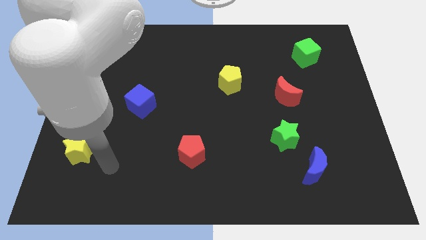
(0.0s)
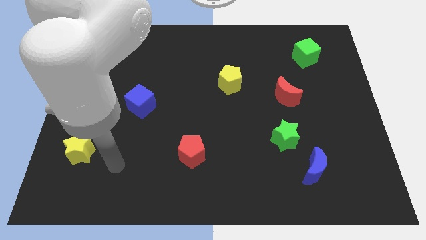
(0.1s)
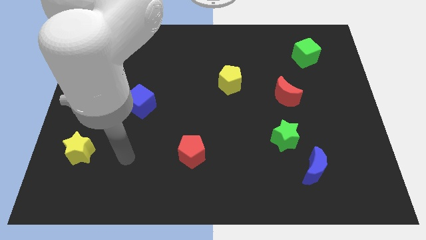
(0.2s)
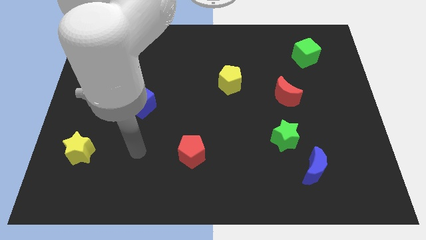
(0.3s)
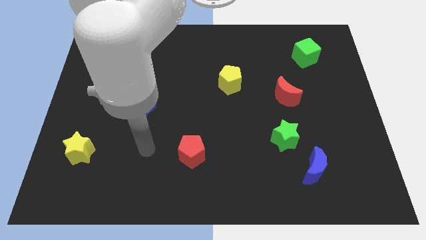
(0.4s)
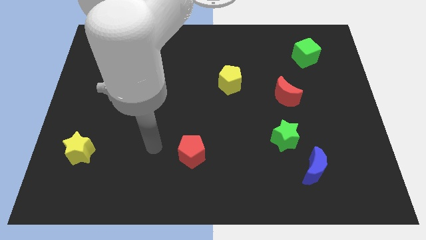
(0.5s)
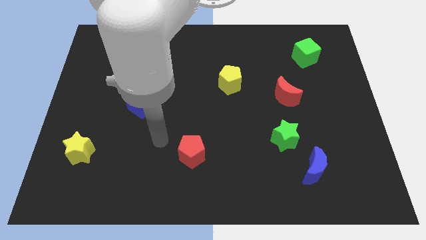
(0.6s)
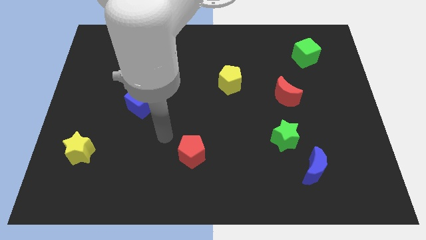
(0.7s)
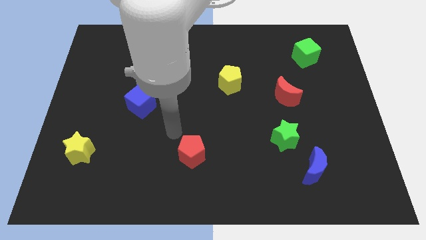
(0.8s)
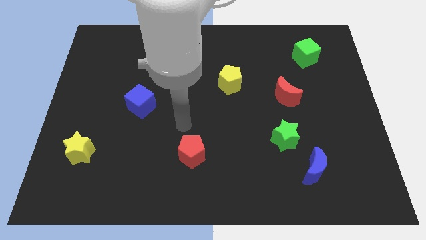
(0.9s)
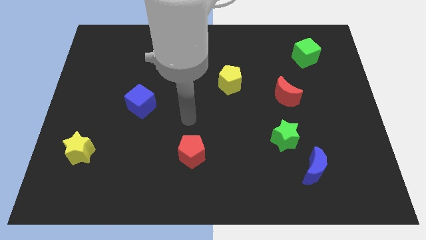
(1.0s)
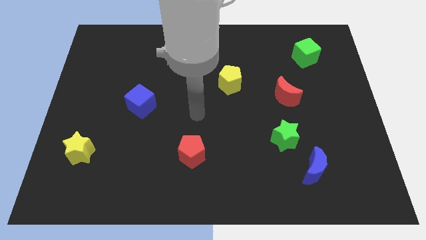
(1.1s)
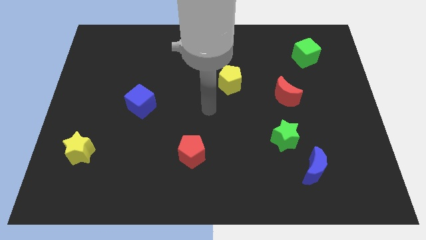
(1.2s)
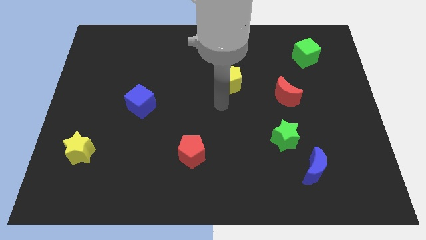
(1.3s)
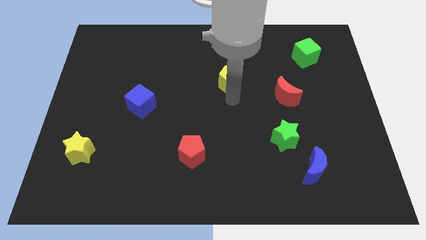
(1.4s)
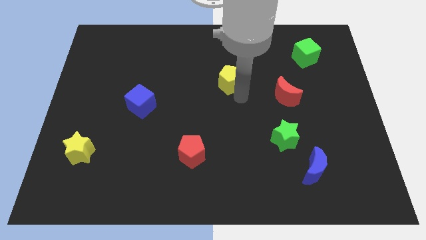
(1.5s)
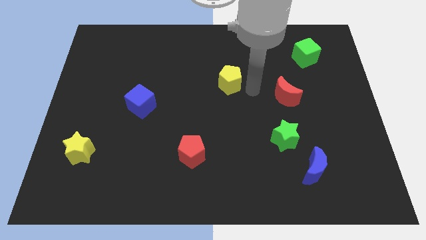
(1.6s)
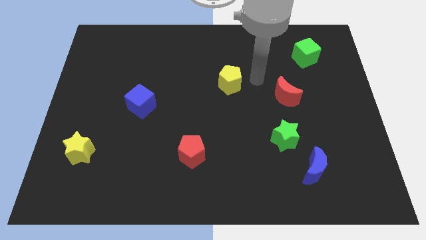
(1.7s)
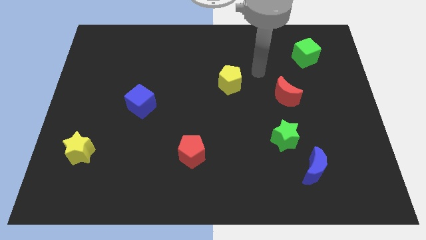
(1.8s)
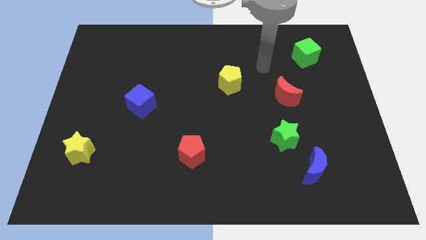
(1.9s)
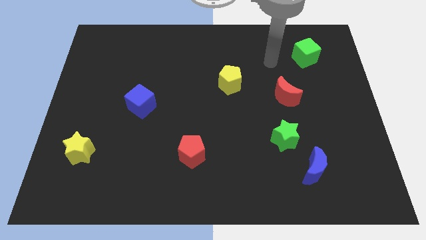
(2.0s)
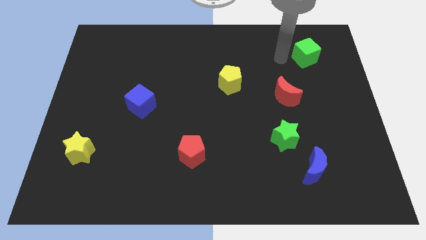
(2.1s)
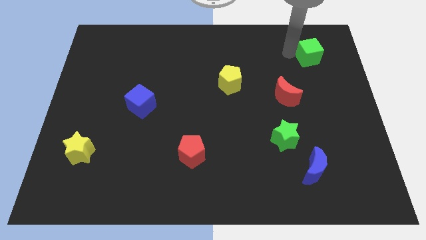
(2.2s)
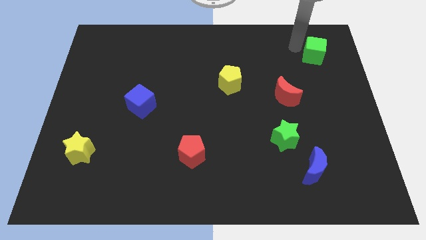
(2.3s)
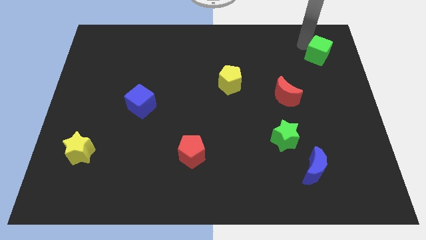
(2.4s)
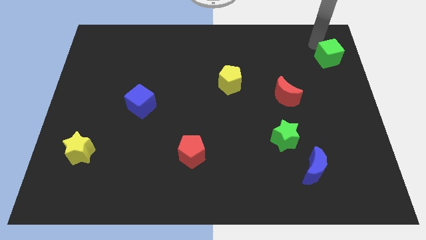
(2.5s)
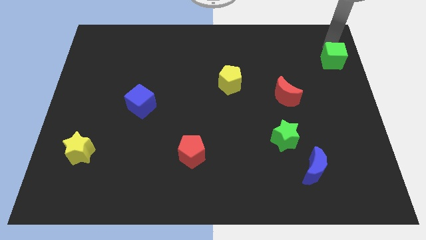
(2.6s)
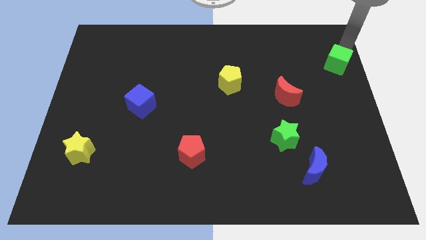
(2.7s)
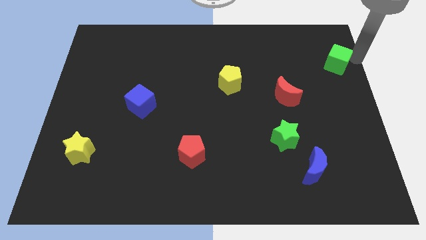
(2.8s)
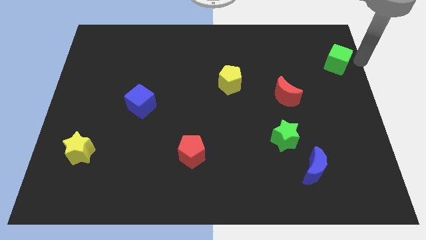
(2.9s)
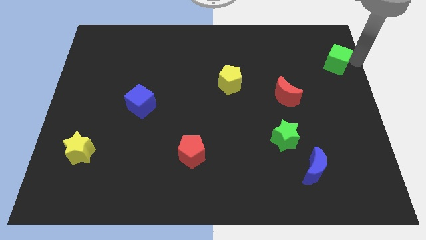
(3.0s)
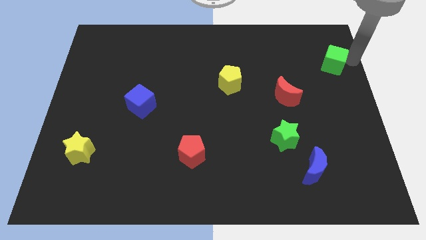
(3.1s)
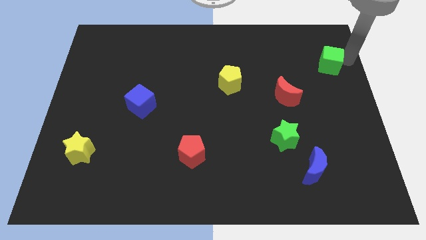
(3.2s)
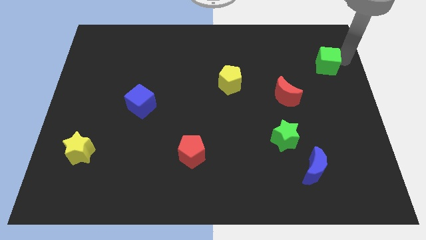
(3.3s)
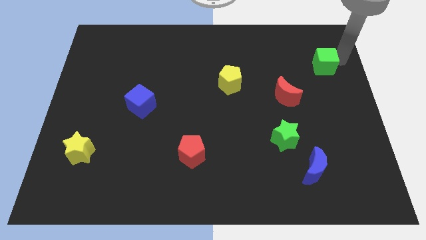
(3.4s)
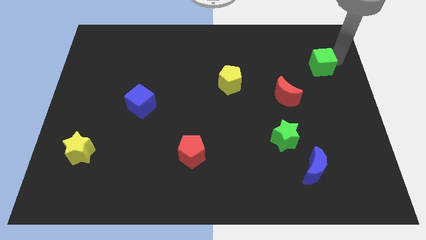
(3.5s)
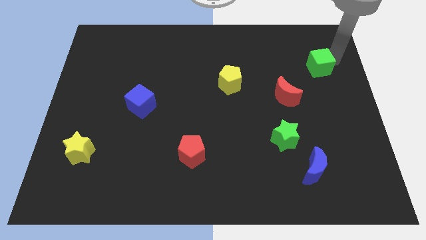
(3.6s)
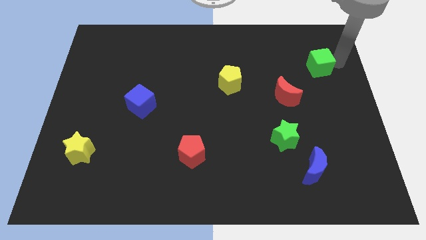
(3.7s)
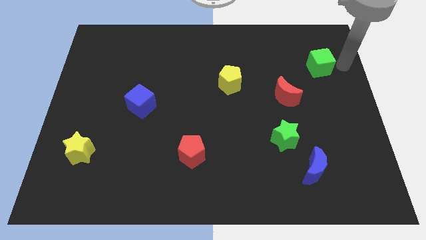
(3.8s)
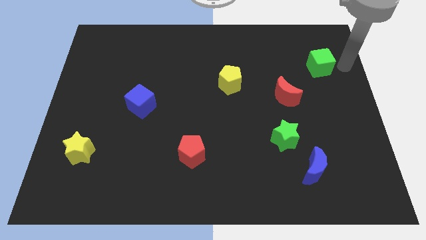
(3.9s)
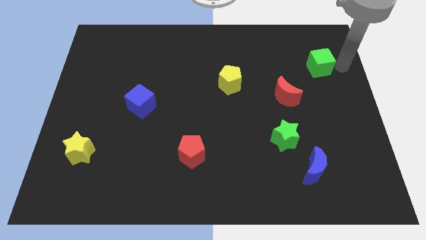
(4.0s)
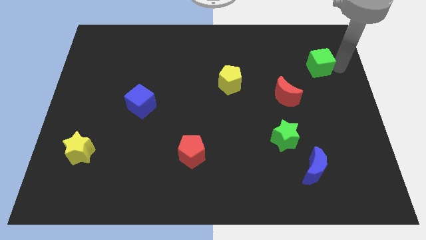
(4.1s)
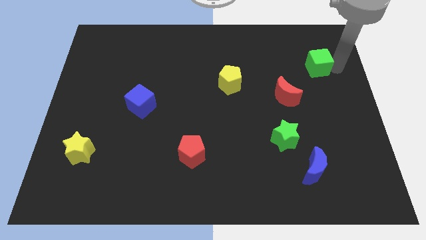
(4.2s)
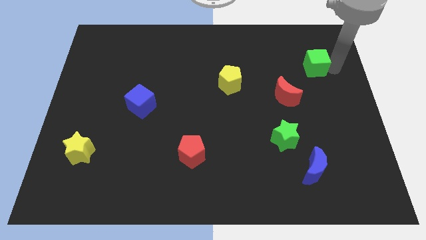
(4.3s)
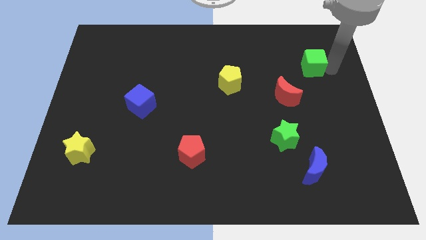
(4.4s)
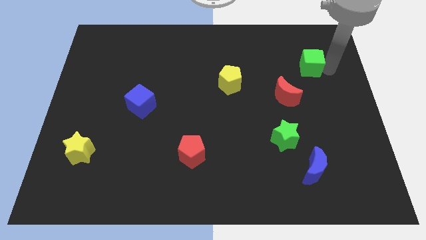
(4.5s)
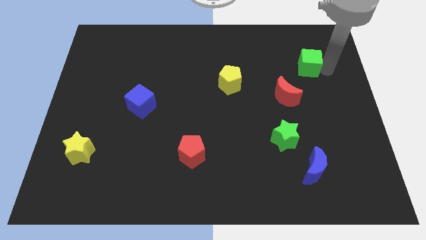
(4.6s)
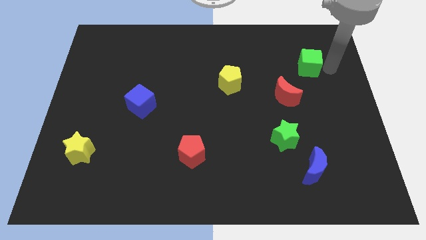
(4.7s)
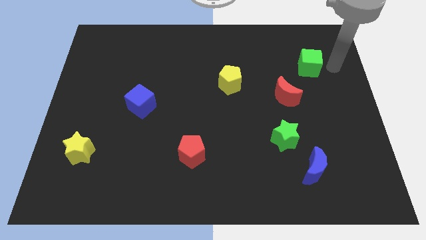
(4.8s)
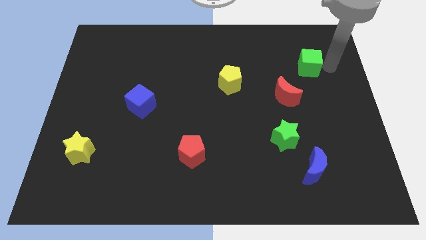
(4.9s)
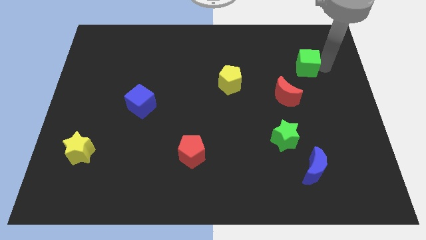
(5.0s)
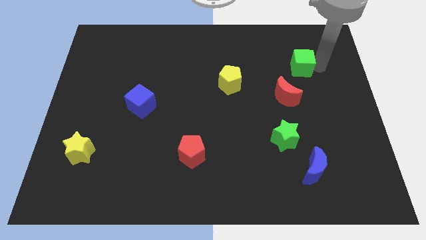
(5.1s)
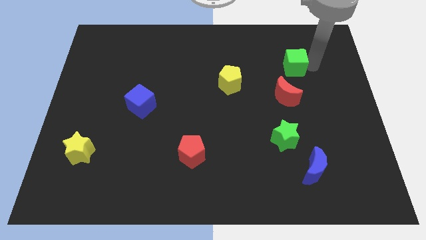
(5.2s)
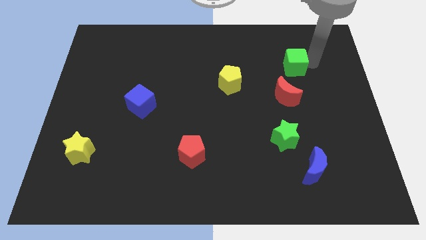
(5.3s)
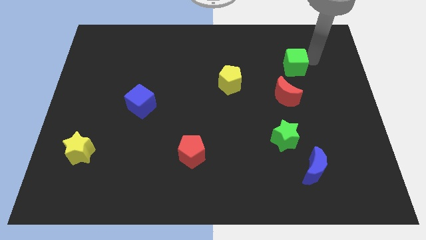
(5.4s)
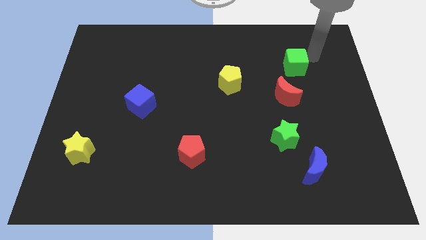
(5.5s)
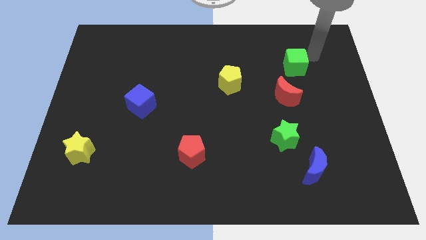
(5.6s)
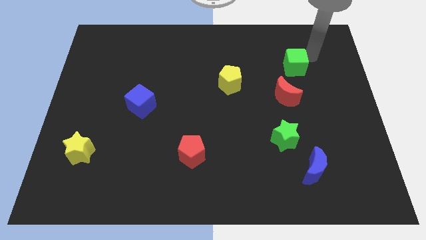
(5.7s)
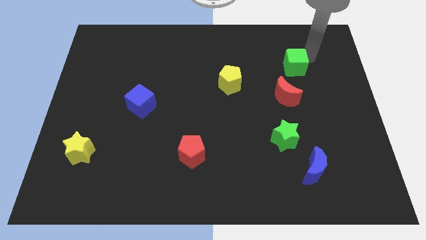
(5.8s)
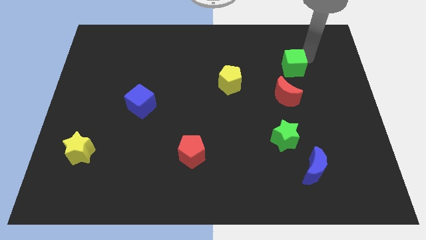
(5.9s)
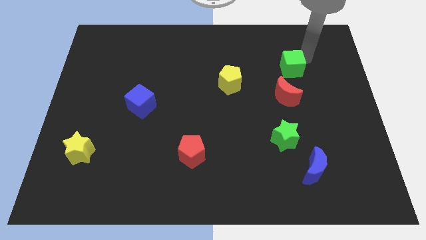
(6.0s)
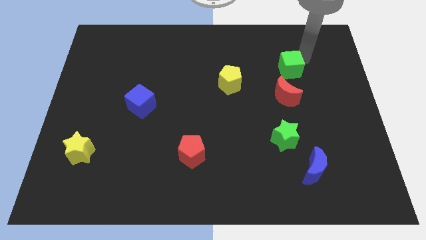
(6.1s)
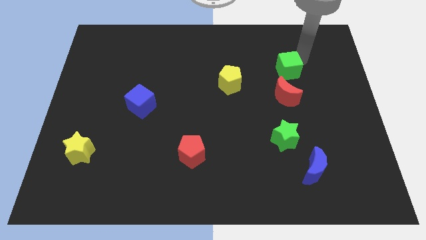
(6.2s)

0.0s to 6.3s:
slide the green cube diagonally downwards and to the left slightly

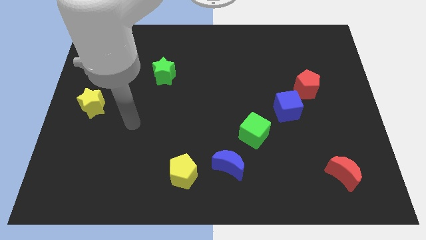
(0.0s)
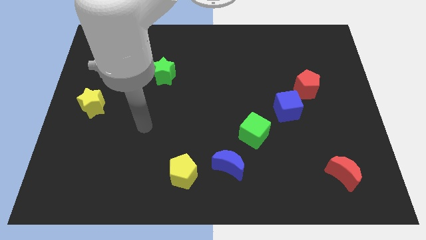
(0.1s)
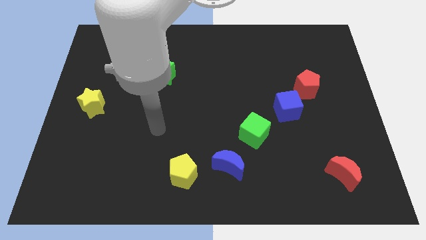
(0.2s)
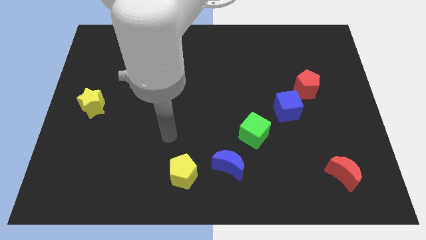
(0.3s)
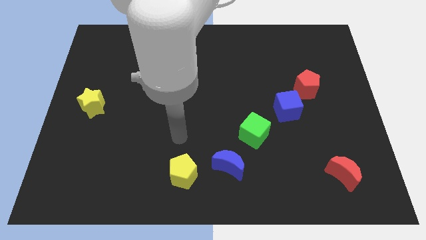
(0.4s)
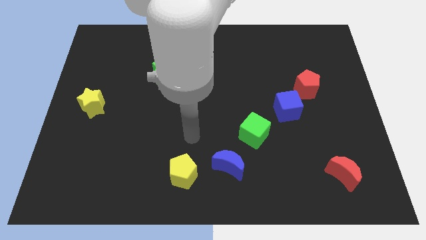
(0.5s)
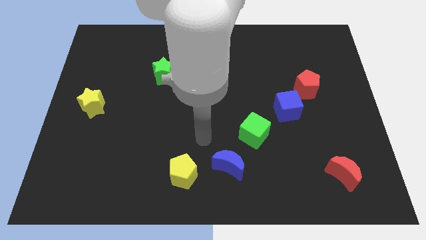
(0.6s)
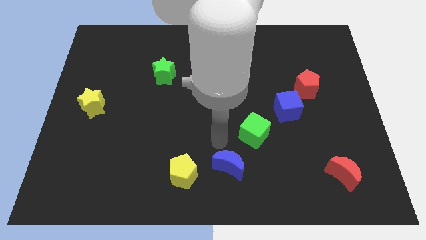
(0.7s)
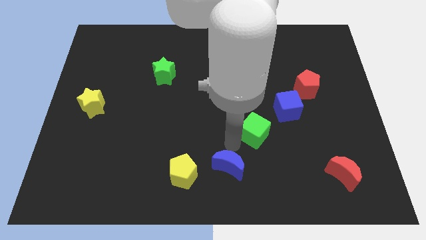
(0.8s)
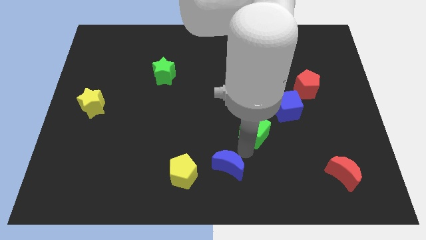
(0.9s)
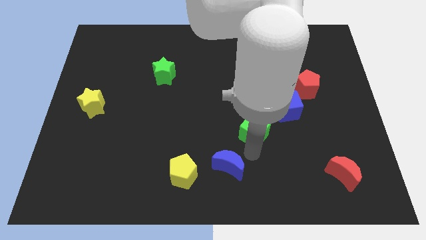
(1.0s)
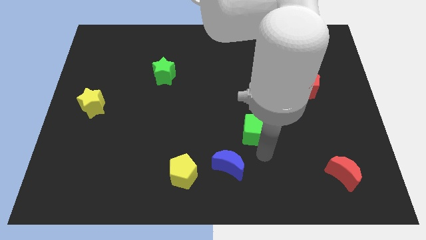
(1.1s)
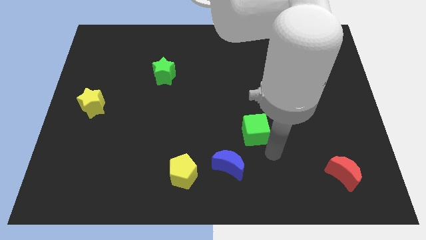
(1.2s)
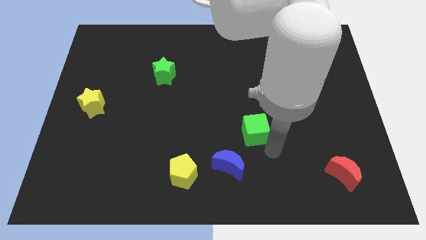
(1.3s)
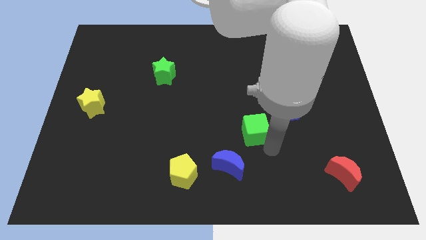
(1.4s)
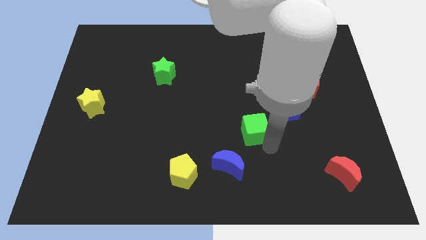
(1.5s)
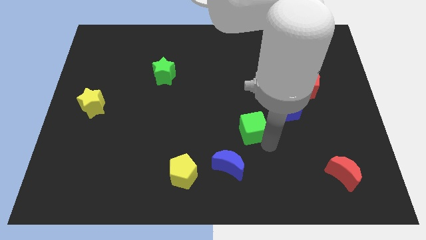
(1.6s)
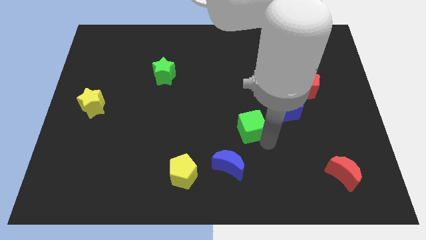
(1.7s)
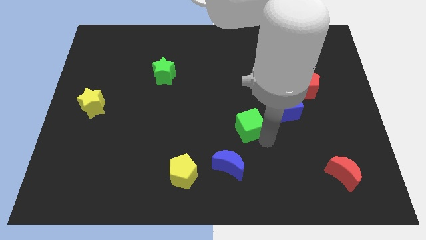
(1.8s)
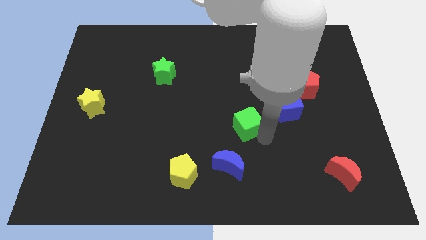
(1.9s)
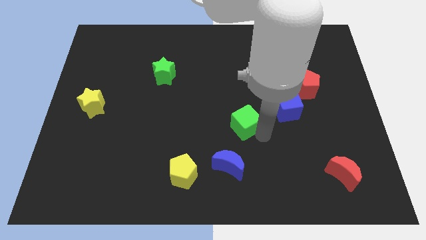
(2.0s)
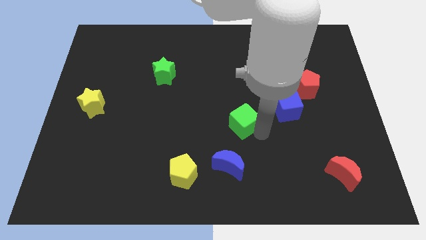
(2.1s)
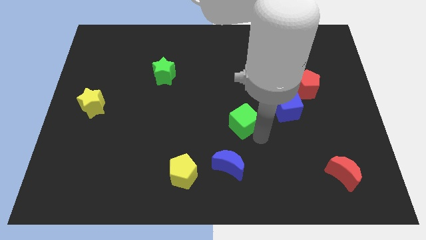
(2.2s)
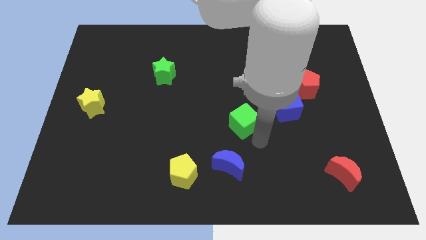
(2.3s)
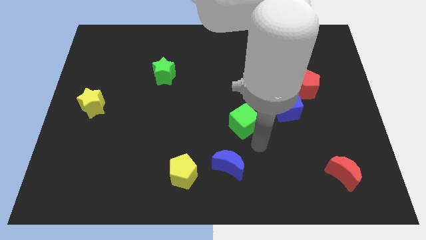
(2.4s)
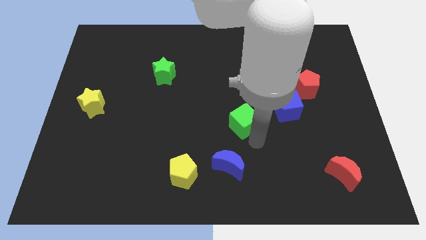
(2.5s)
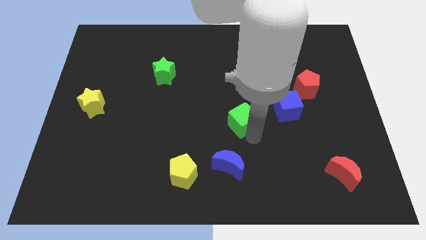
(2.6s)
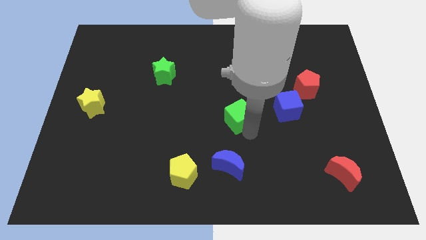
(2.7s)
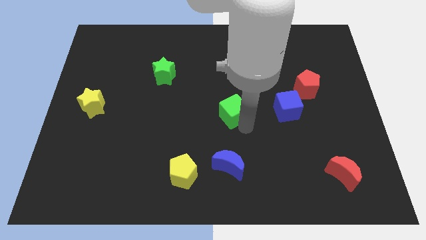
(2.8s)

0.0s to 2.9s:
slightly slide the green cube up and left diagonally
